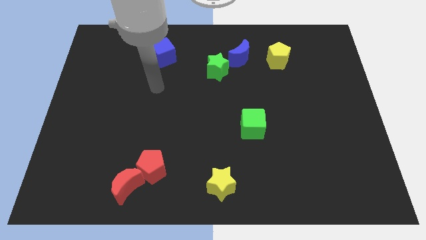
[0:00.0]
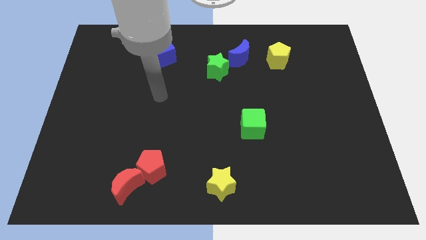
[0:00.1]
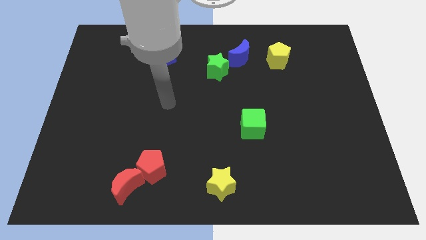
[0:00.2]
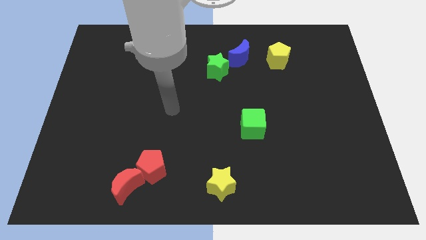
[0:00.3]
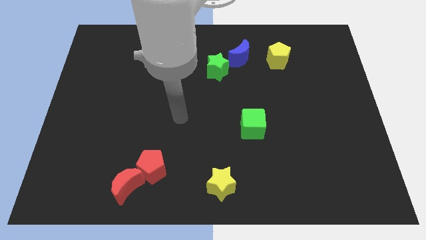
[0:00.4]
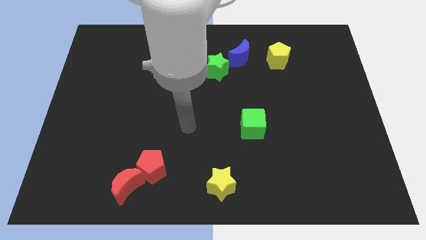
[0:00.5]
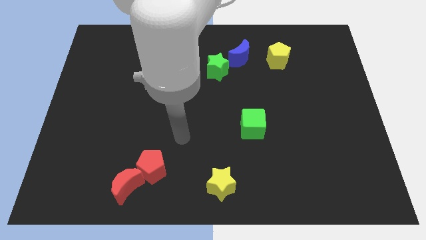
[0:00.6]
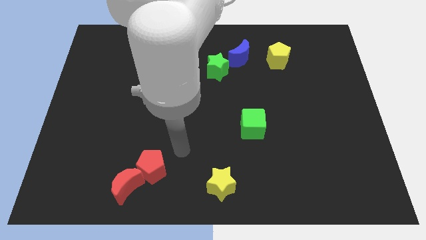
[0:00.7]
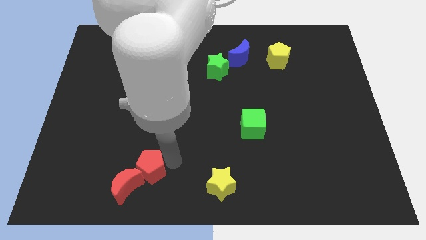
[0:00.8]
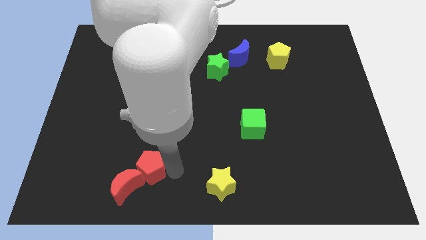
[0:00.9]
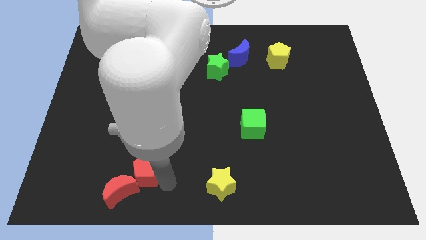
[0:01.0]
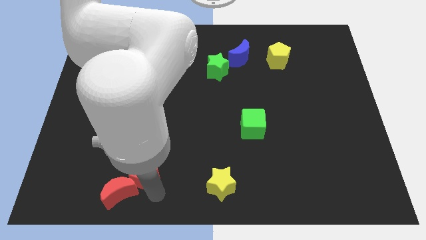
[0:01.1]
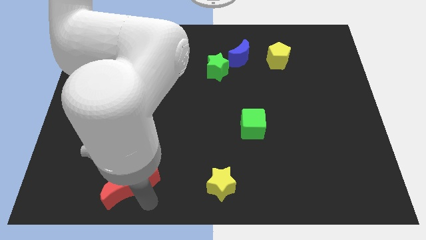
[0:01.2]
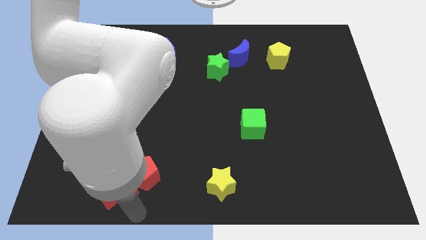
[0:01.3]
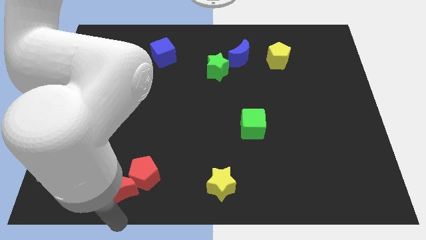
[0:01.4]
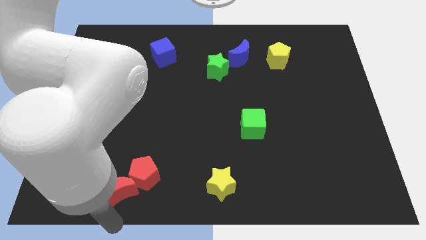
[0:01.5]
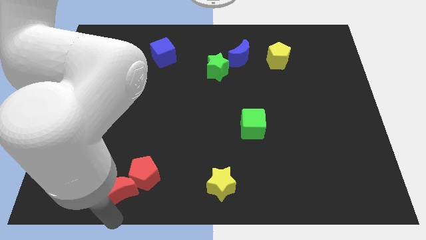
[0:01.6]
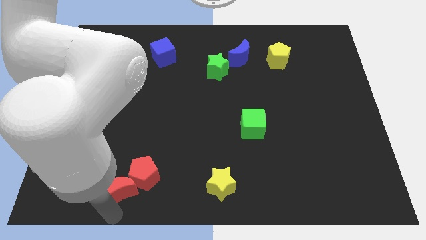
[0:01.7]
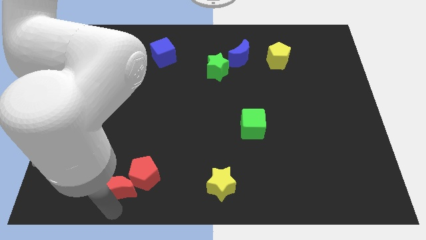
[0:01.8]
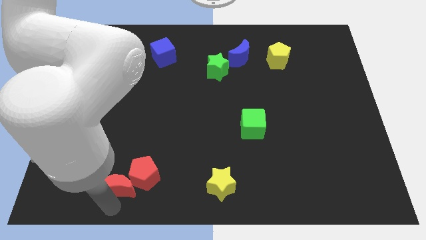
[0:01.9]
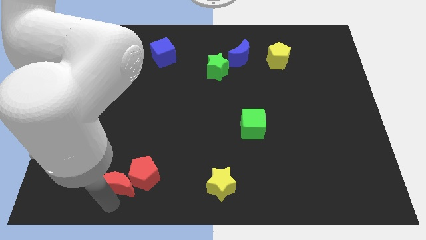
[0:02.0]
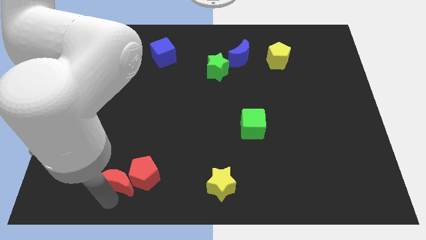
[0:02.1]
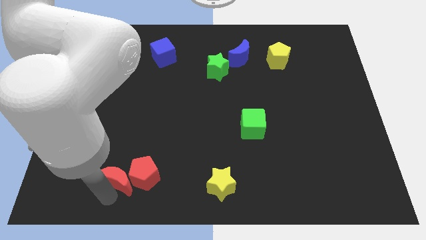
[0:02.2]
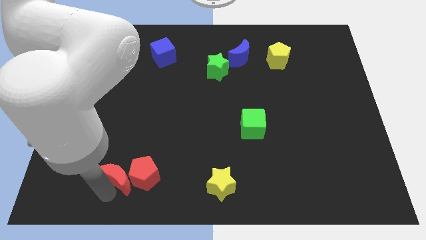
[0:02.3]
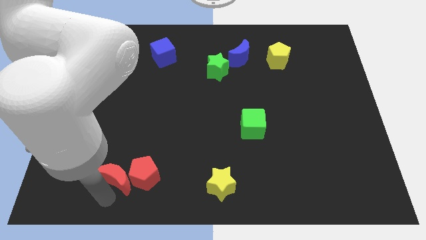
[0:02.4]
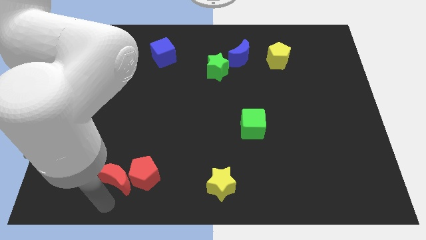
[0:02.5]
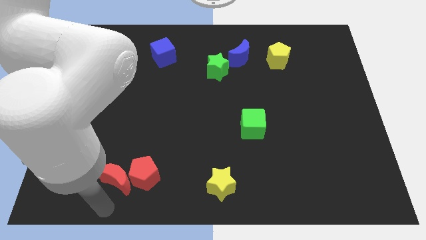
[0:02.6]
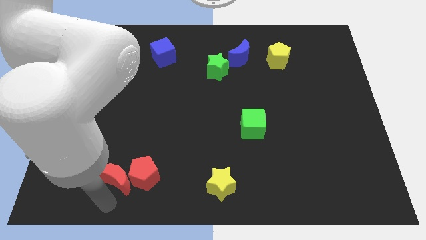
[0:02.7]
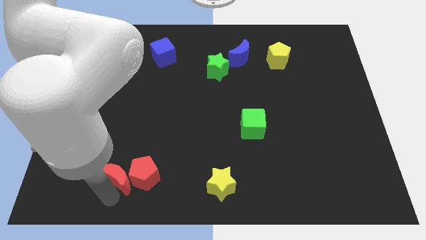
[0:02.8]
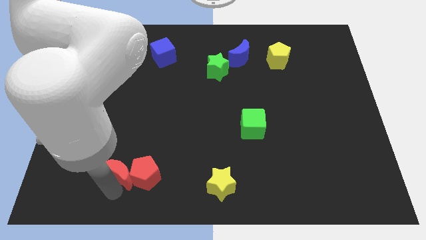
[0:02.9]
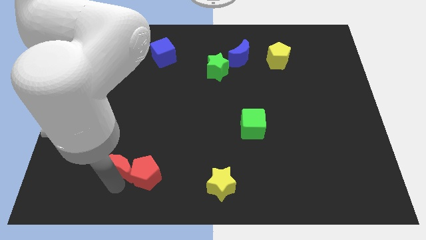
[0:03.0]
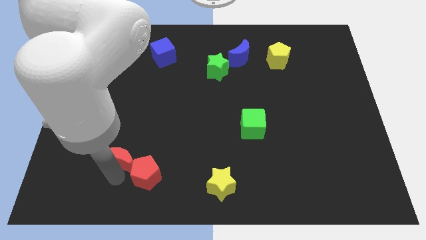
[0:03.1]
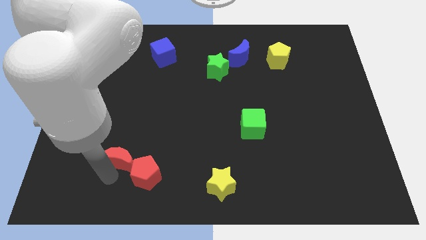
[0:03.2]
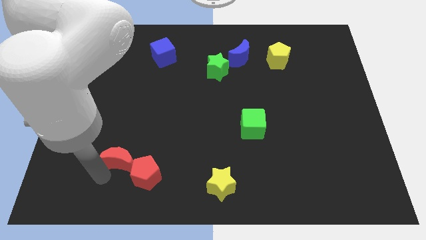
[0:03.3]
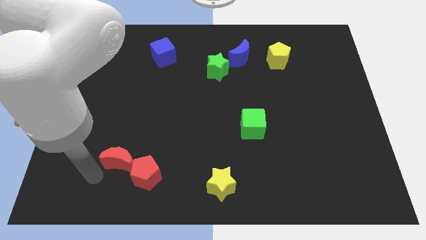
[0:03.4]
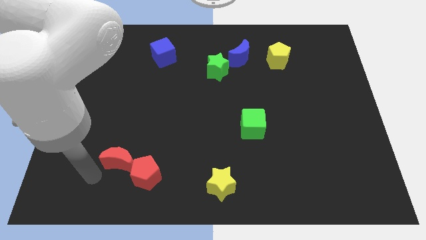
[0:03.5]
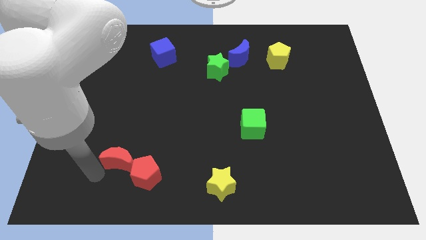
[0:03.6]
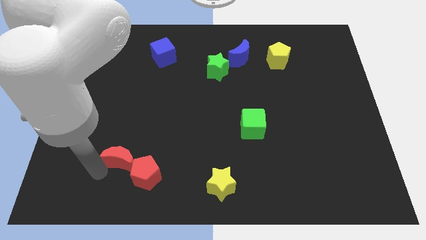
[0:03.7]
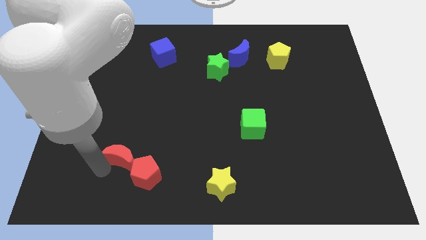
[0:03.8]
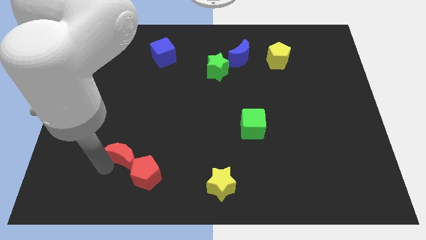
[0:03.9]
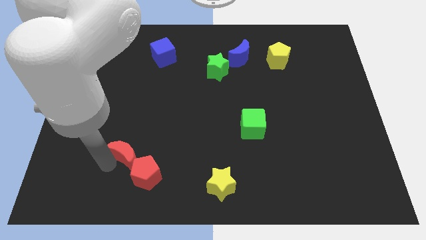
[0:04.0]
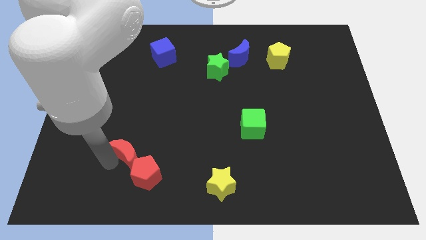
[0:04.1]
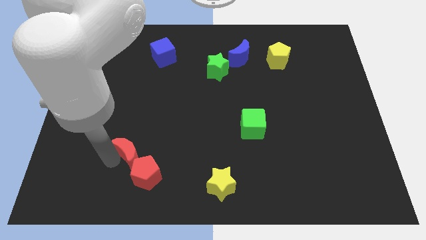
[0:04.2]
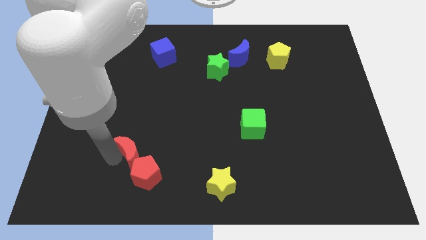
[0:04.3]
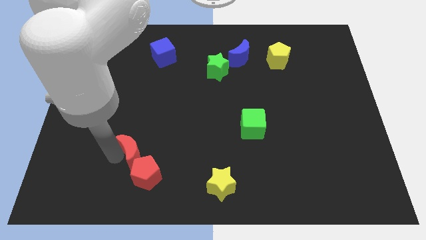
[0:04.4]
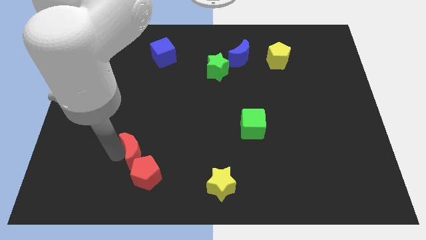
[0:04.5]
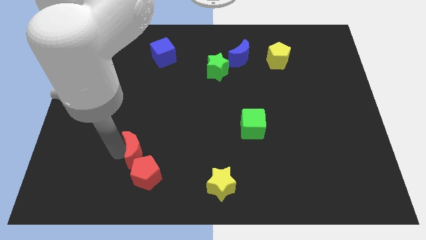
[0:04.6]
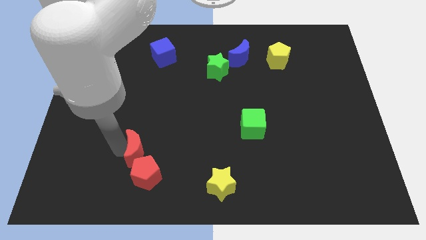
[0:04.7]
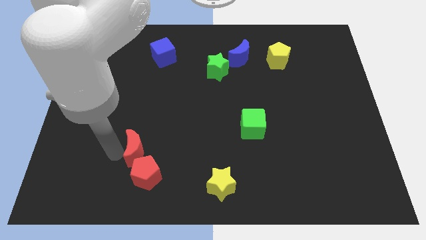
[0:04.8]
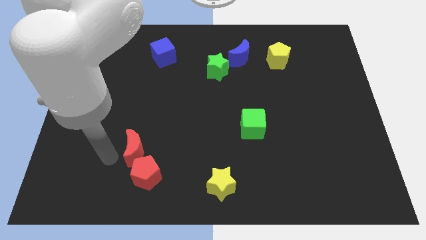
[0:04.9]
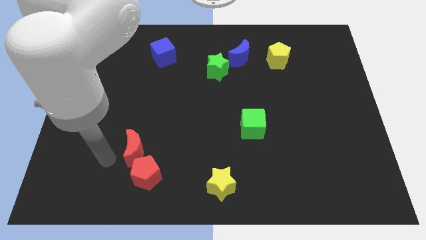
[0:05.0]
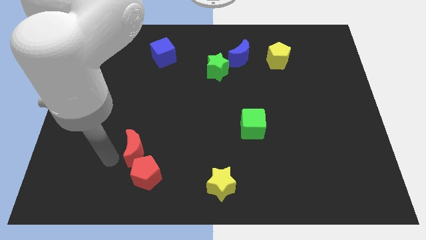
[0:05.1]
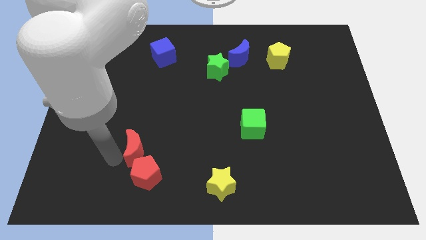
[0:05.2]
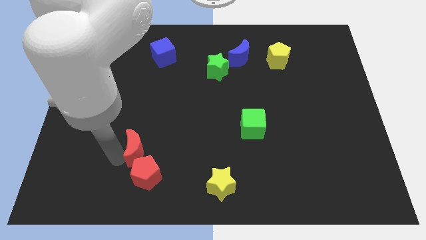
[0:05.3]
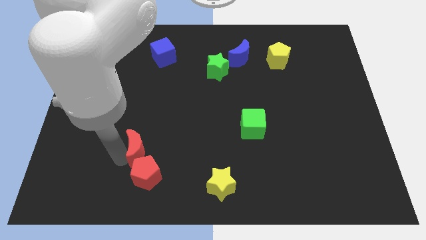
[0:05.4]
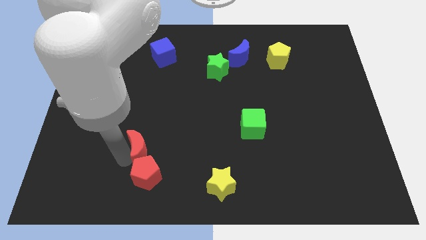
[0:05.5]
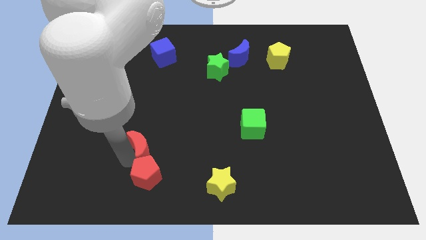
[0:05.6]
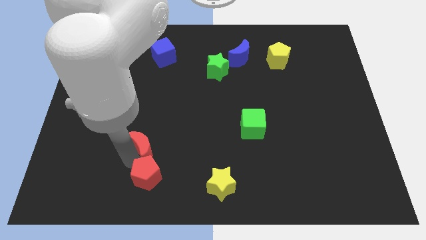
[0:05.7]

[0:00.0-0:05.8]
push the red moon a little bit up and then to the right

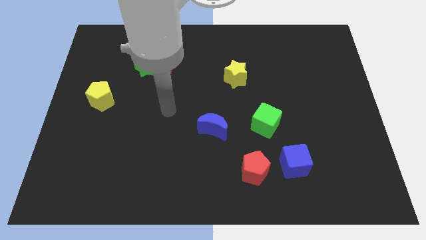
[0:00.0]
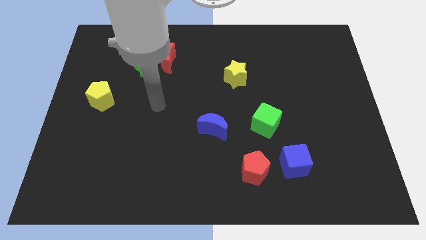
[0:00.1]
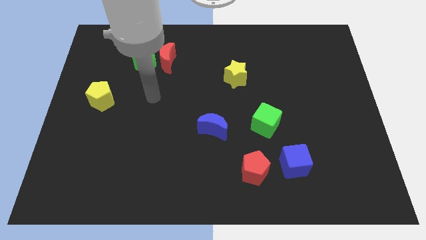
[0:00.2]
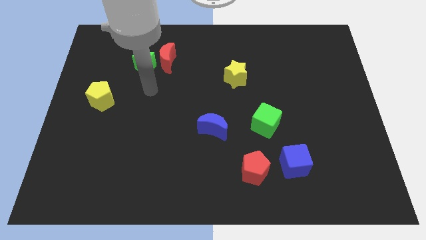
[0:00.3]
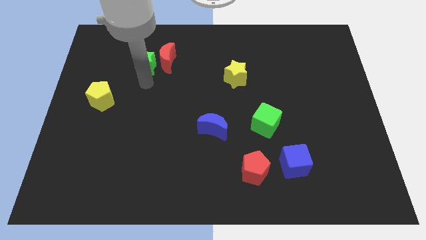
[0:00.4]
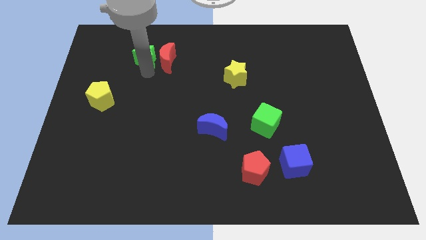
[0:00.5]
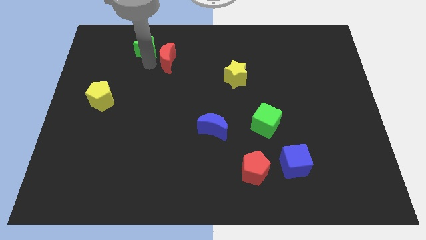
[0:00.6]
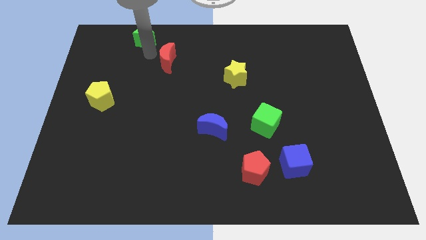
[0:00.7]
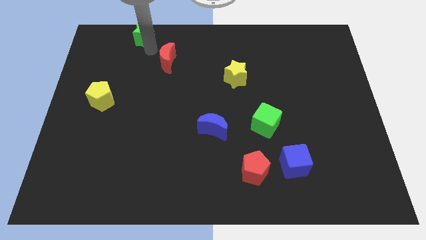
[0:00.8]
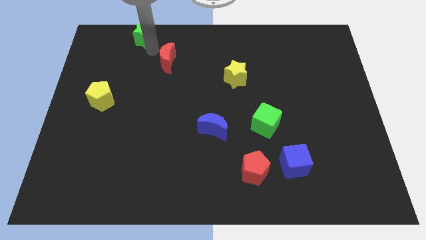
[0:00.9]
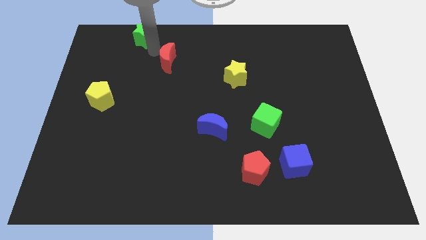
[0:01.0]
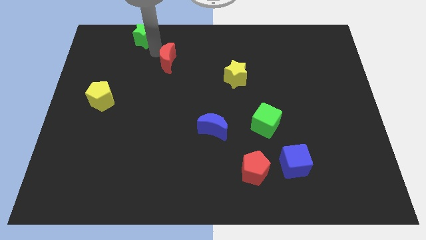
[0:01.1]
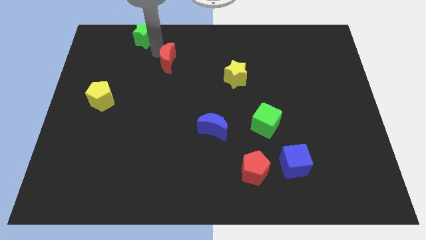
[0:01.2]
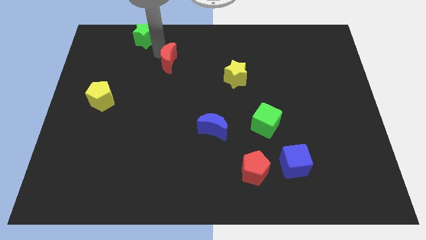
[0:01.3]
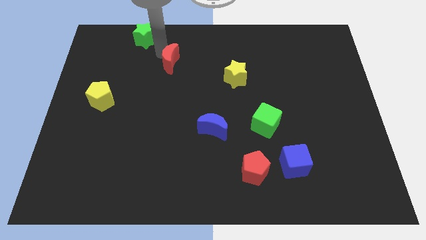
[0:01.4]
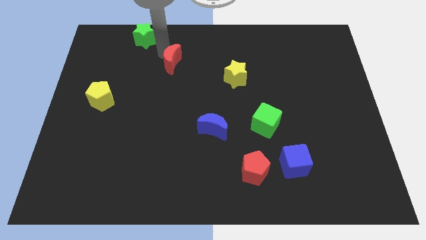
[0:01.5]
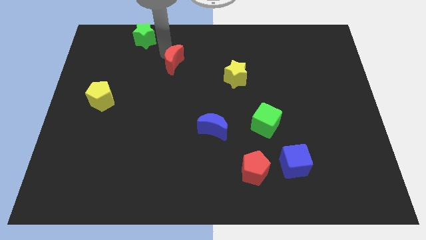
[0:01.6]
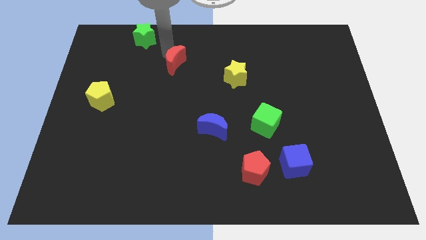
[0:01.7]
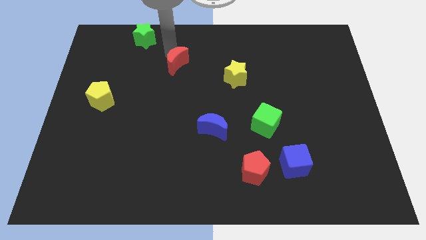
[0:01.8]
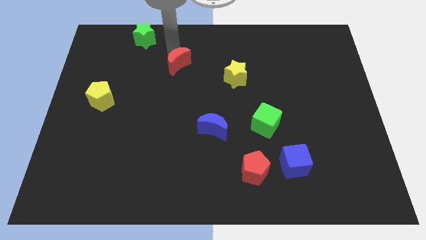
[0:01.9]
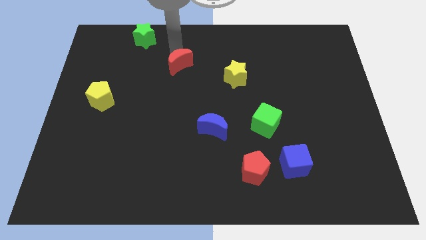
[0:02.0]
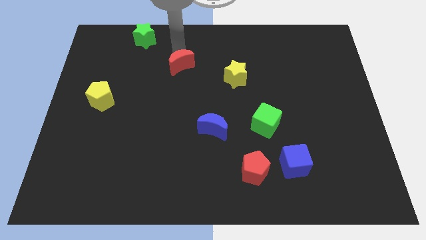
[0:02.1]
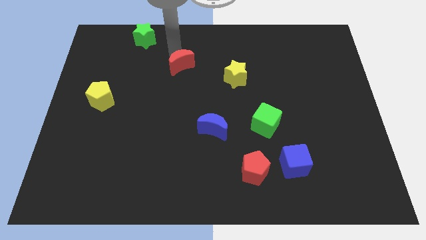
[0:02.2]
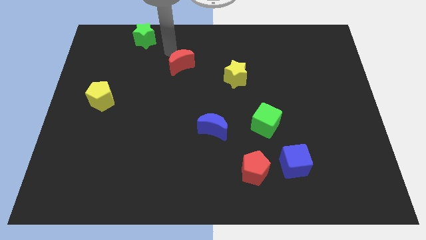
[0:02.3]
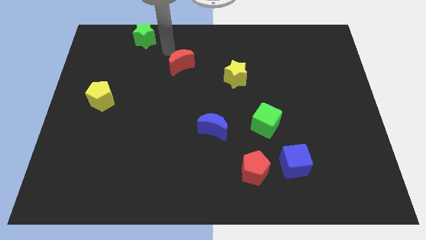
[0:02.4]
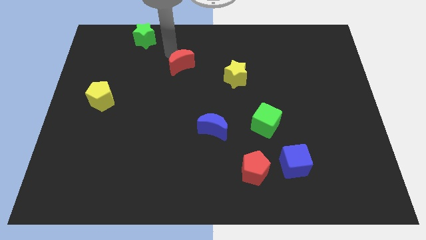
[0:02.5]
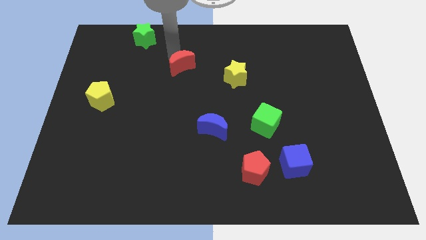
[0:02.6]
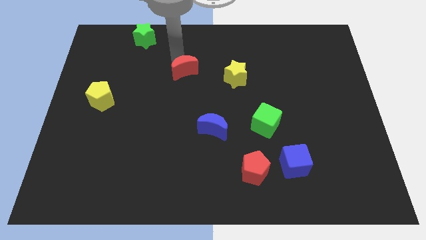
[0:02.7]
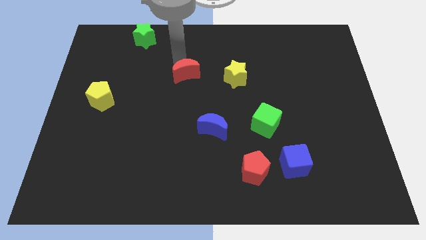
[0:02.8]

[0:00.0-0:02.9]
slightly push the red moon diagonally down and to the right
